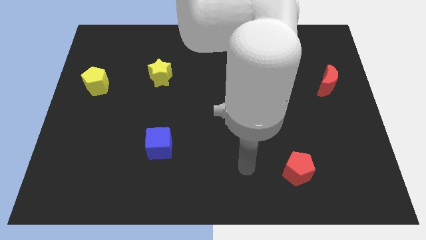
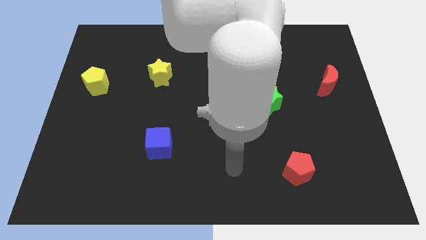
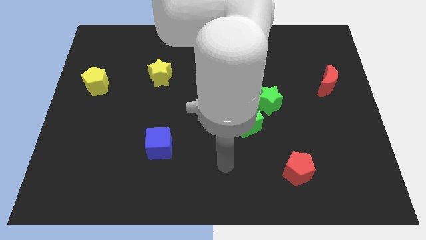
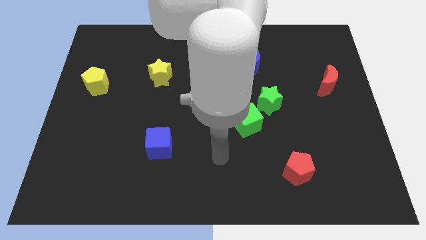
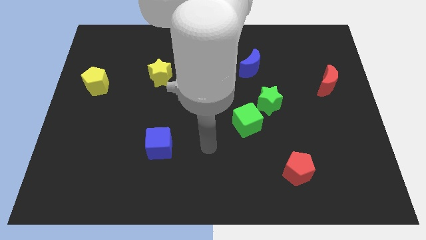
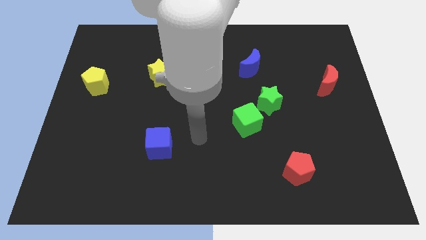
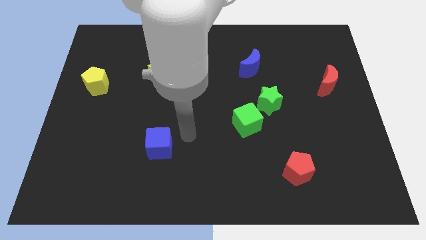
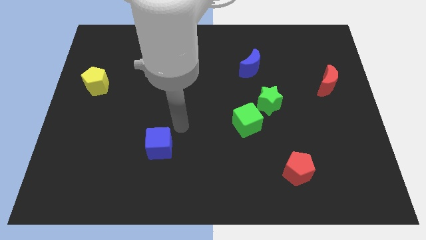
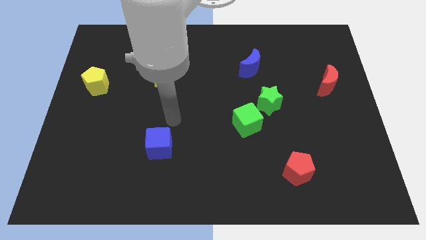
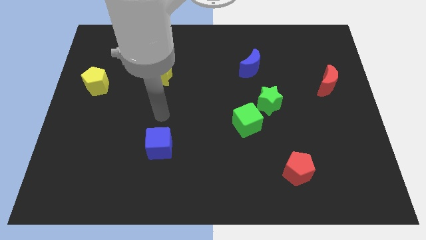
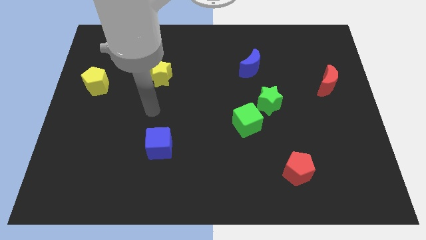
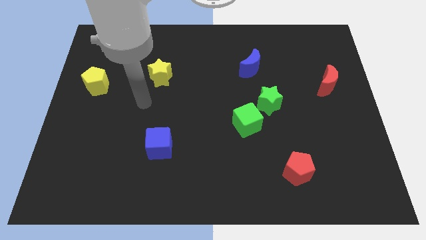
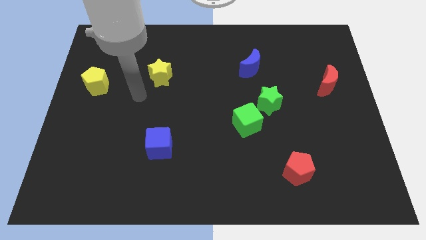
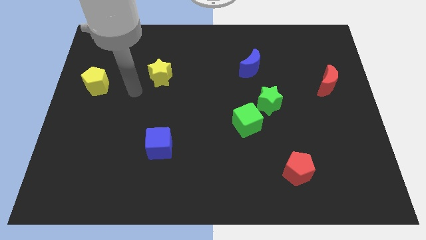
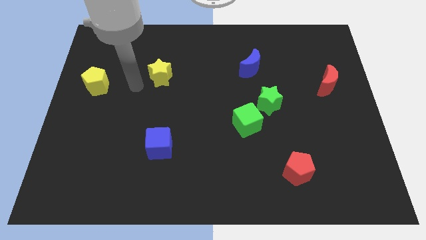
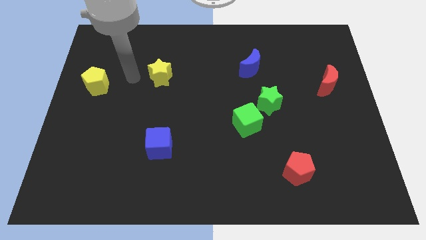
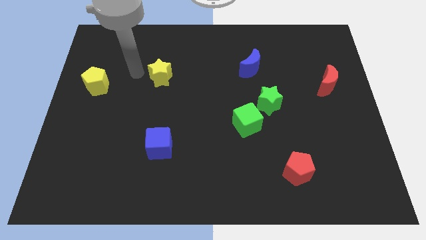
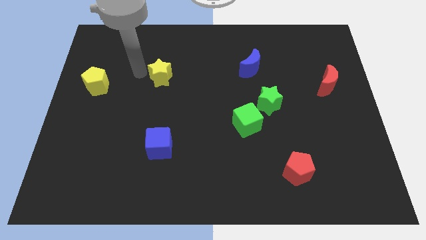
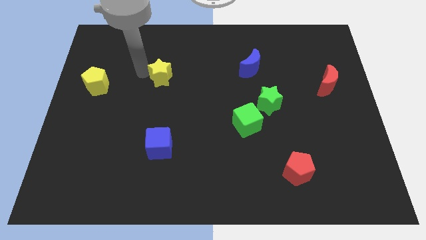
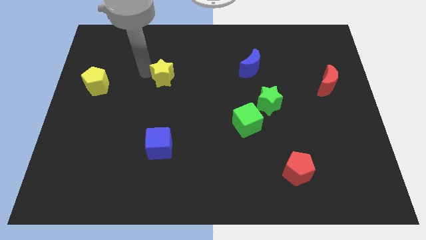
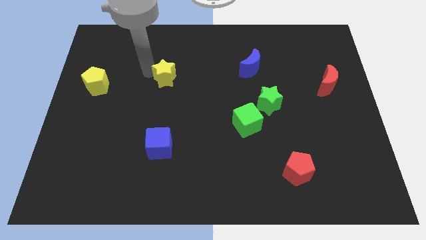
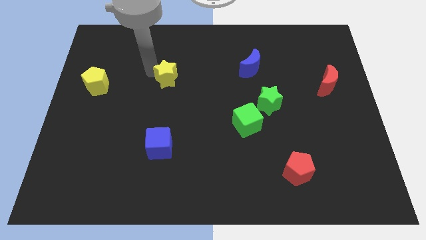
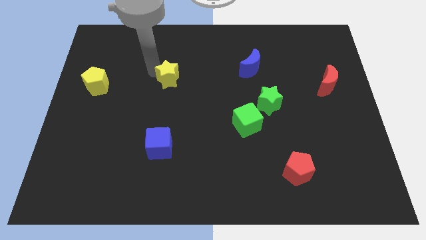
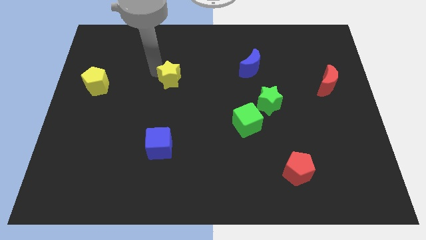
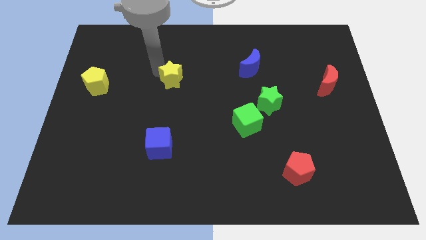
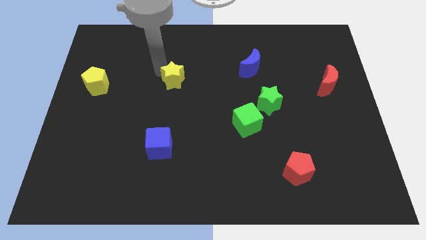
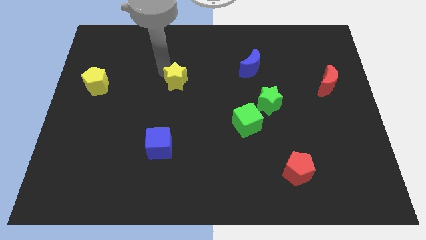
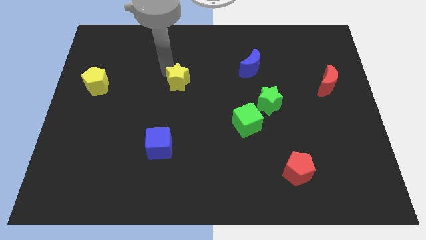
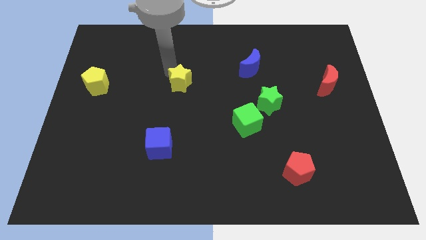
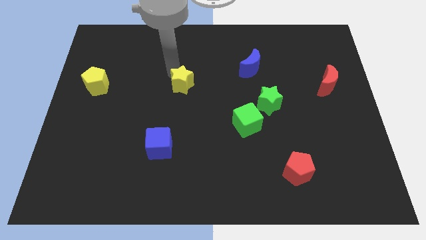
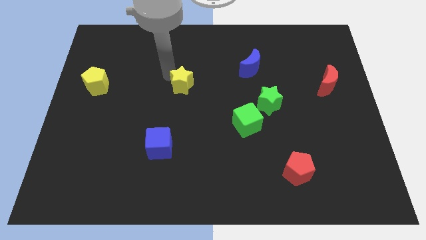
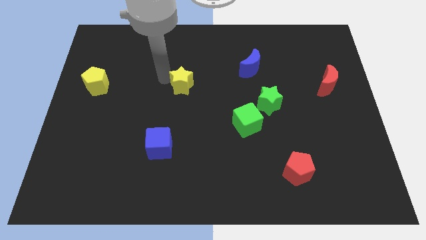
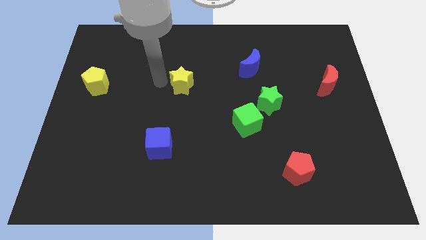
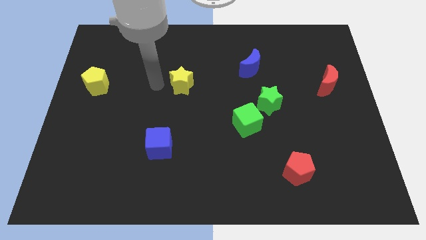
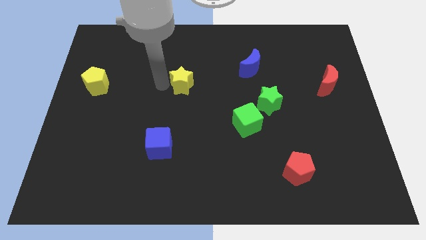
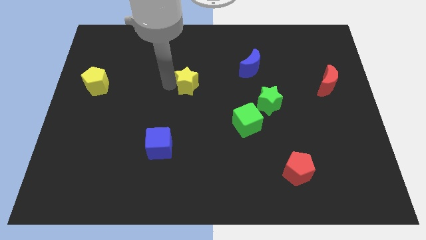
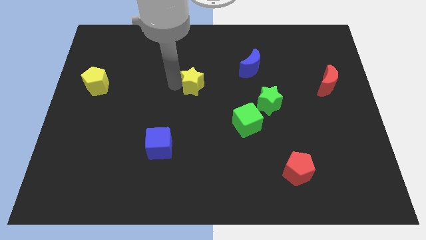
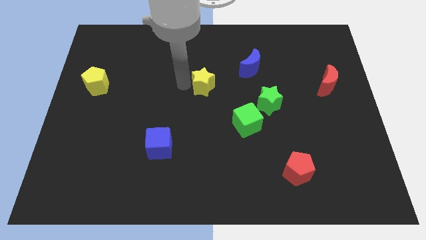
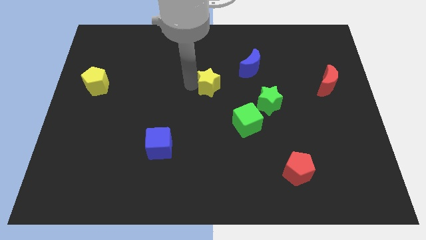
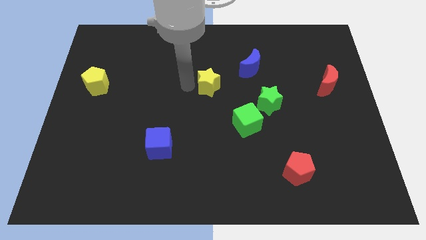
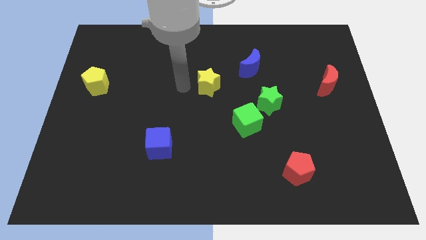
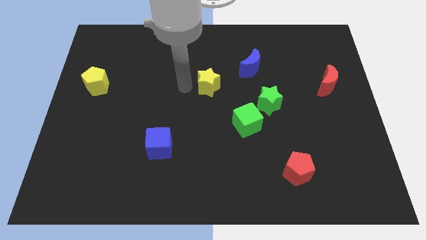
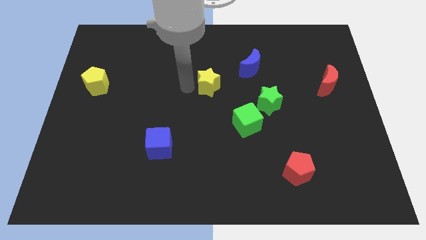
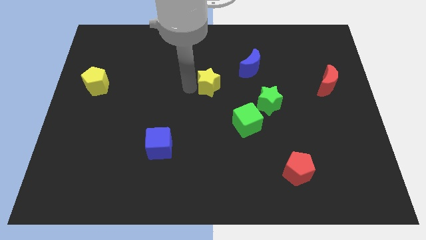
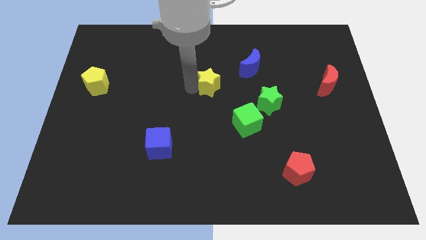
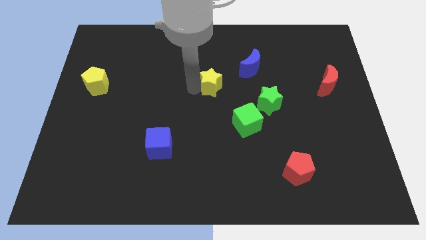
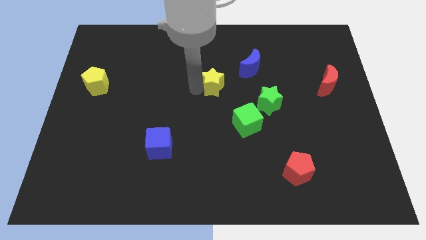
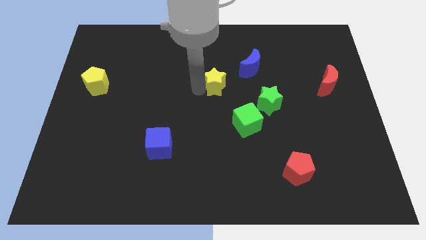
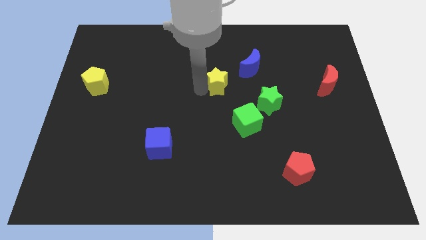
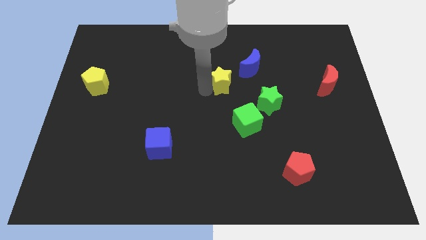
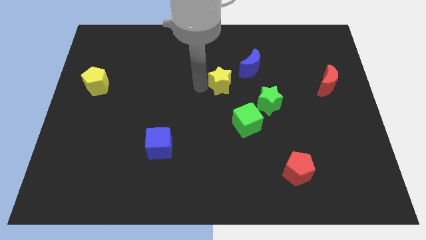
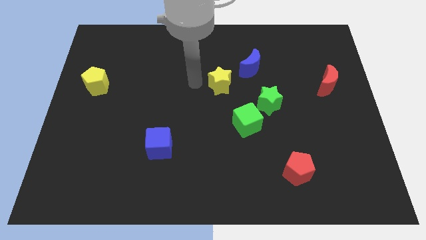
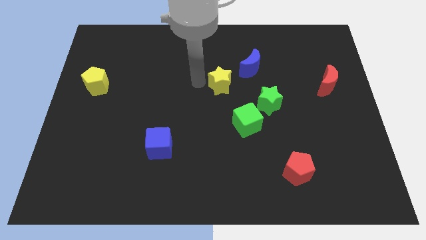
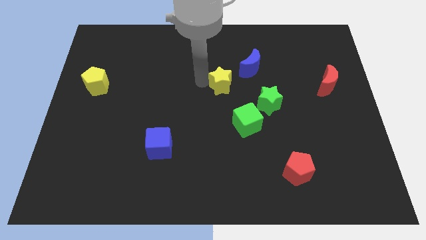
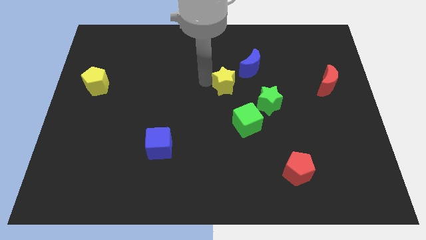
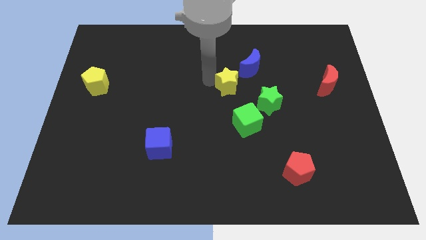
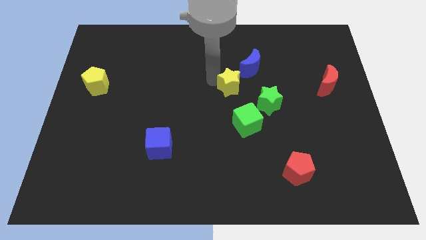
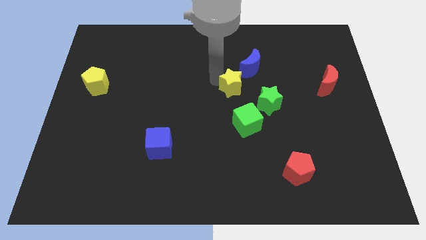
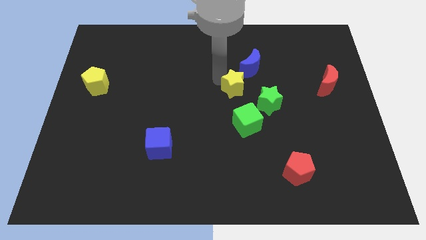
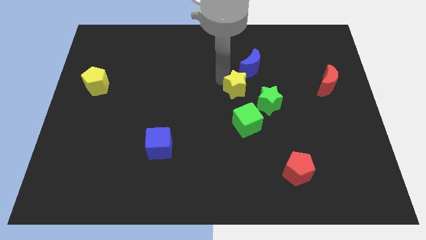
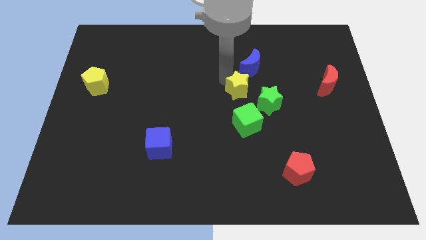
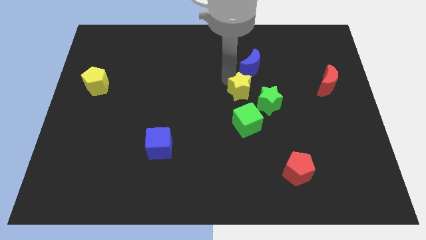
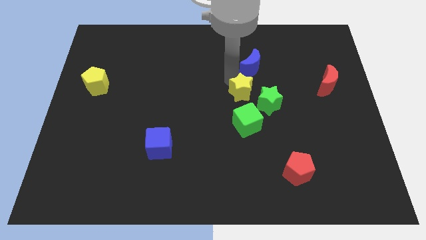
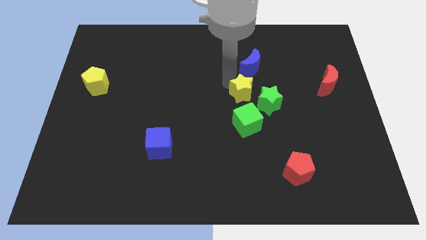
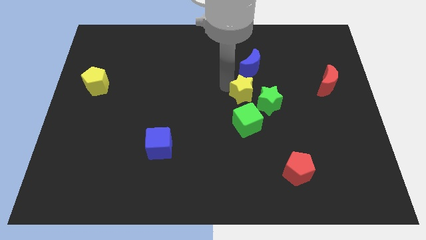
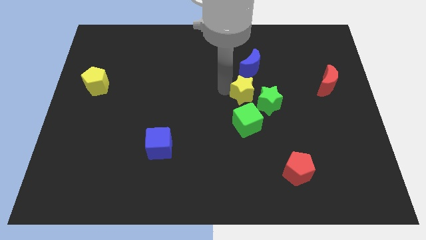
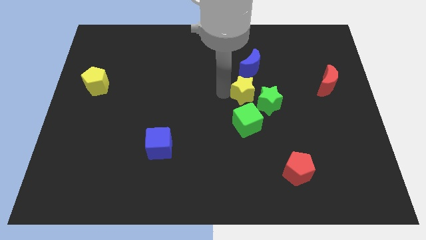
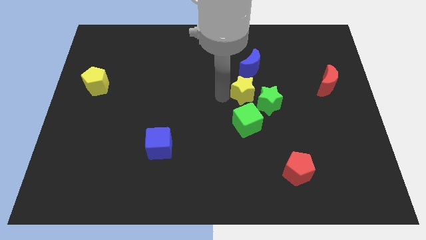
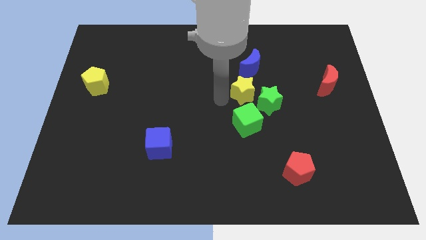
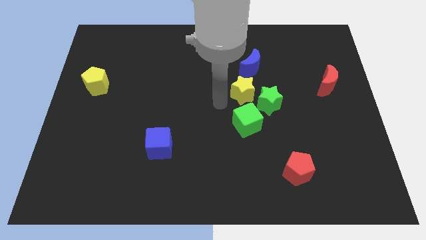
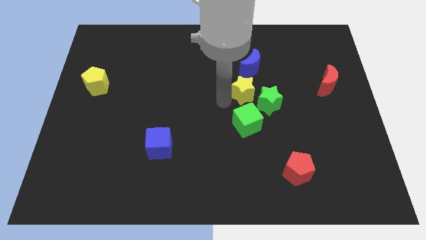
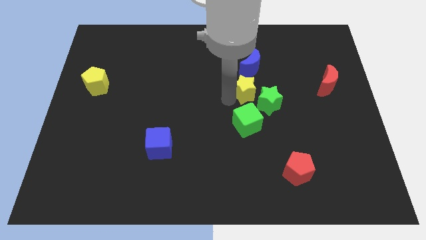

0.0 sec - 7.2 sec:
push the yellow star right

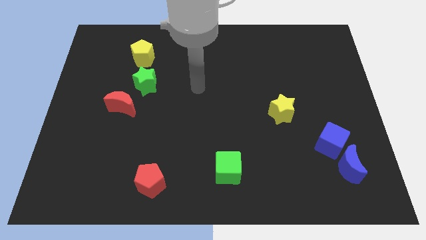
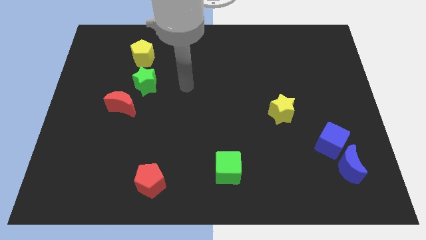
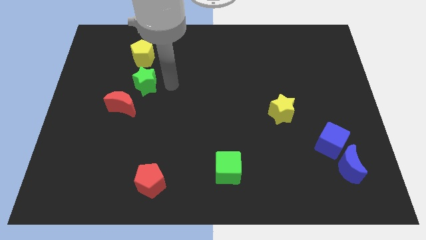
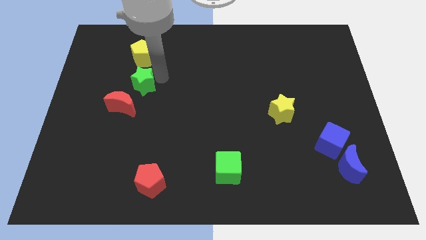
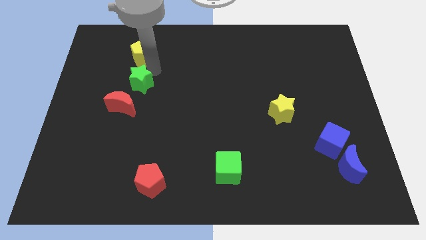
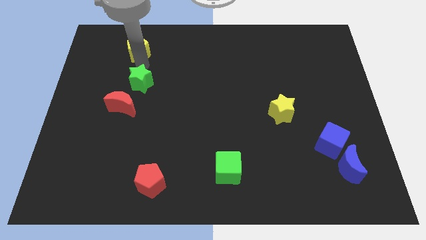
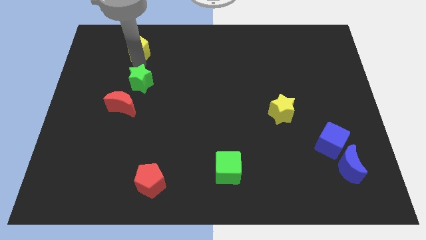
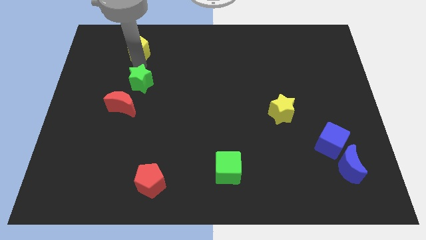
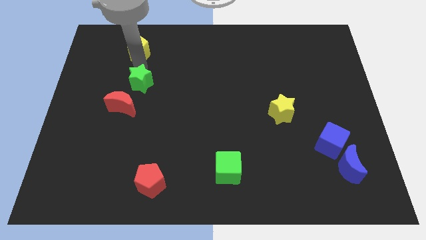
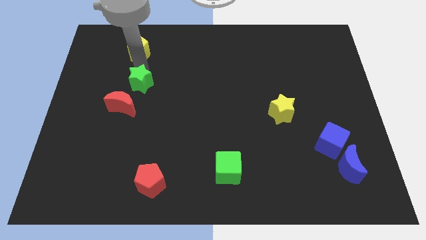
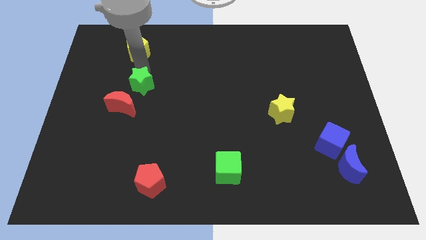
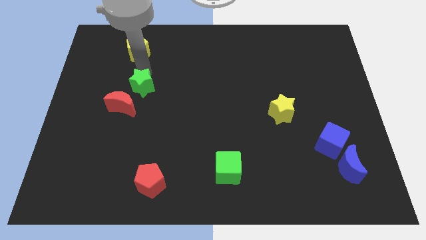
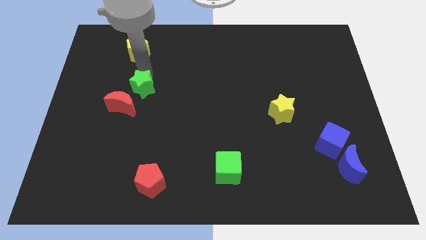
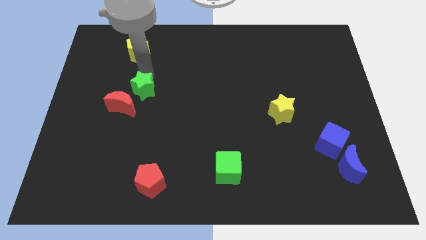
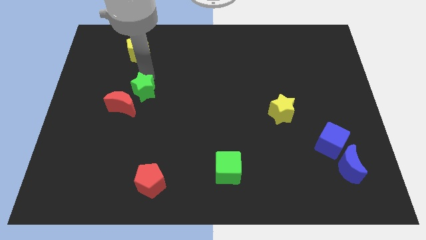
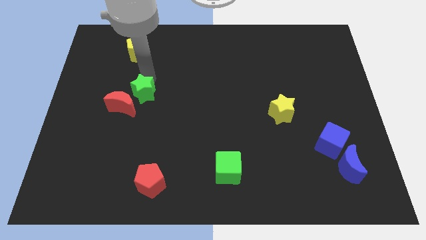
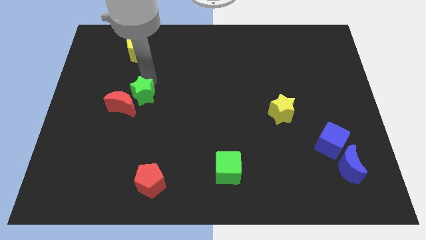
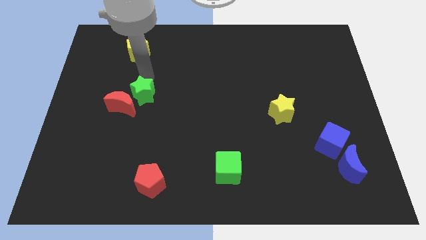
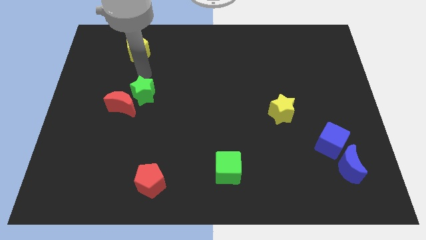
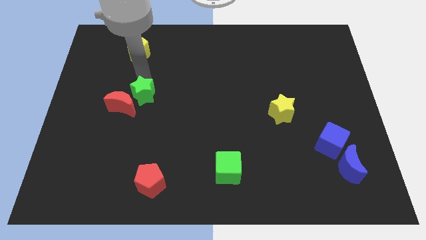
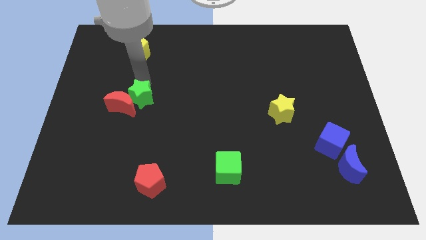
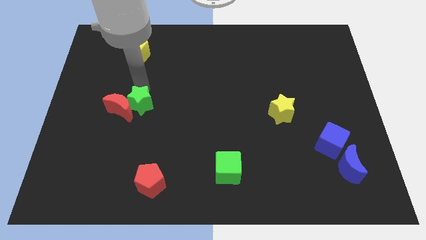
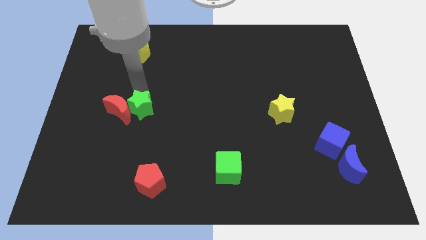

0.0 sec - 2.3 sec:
slightly slide the green star down
